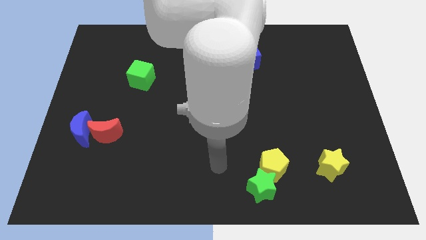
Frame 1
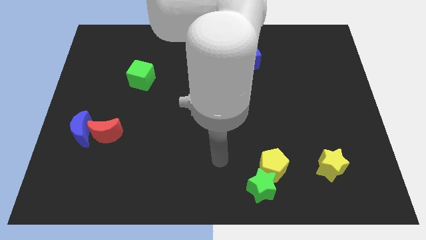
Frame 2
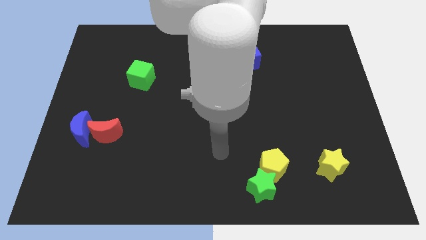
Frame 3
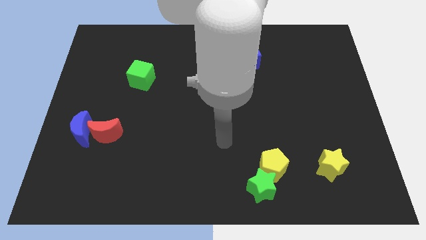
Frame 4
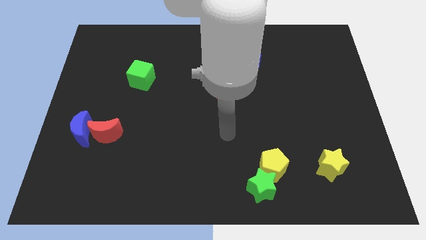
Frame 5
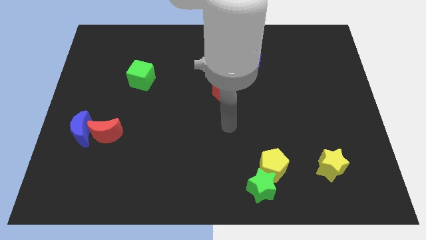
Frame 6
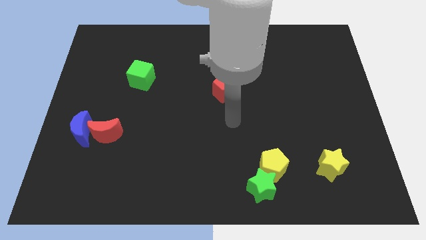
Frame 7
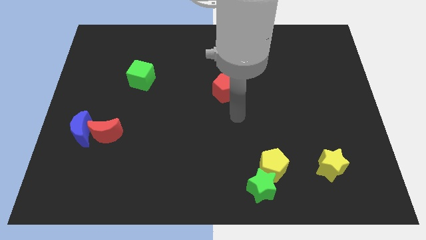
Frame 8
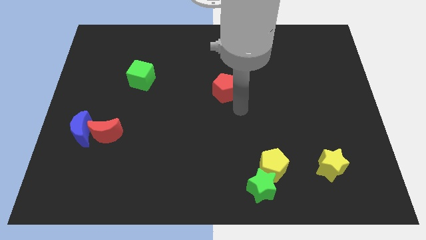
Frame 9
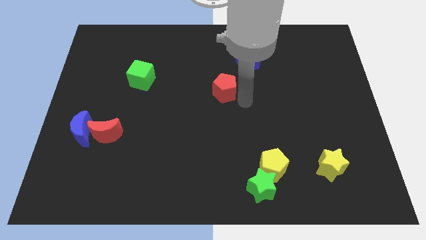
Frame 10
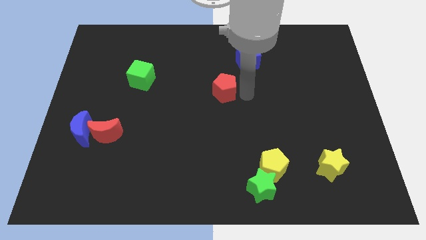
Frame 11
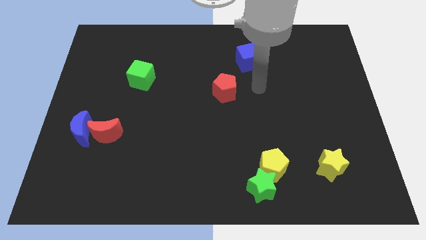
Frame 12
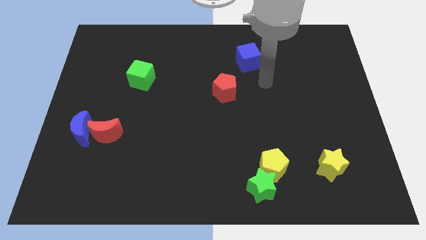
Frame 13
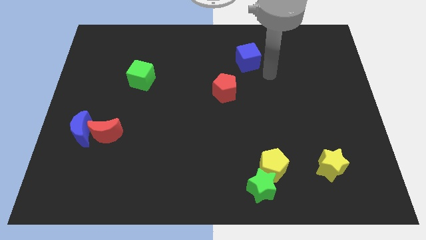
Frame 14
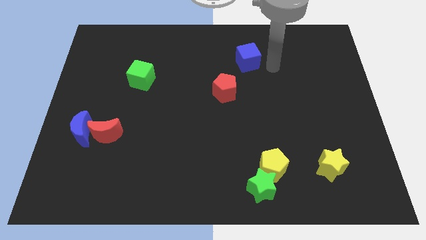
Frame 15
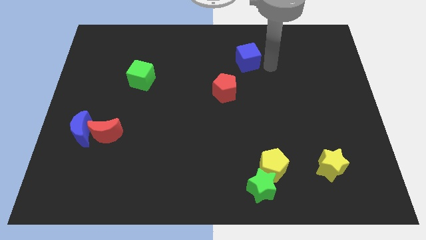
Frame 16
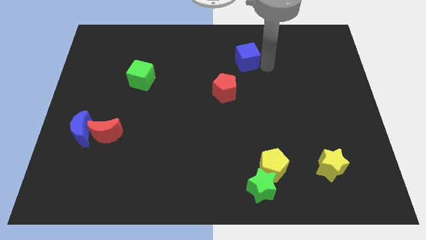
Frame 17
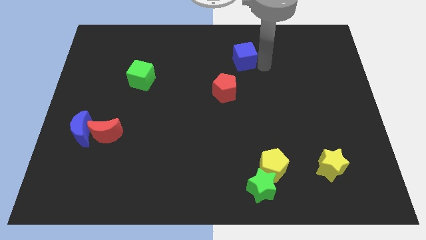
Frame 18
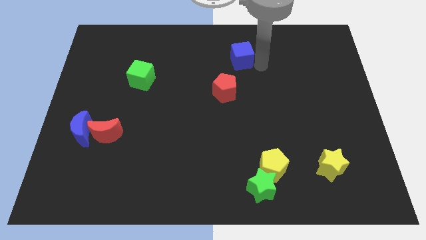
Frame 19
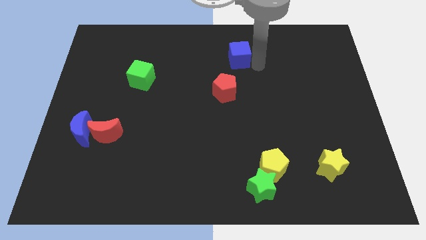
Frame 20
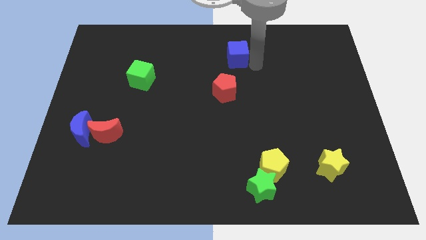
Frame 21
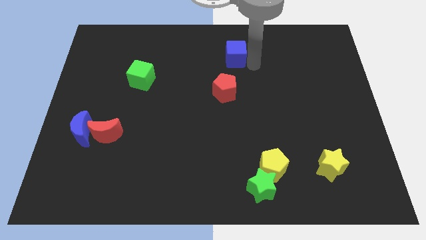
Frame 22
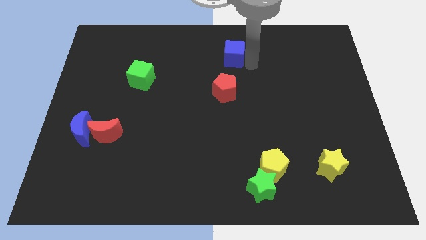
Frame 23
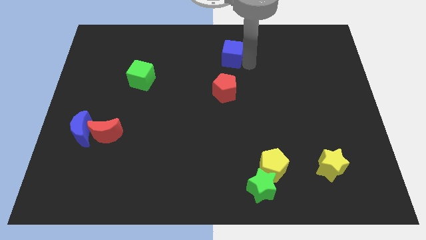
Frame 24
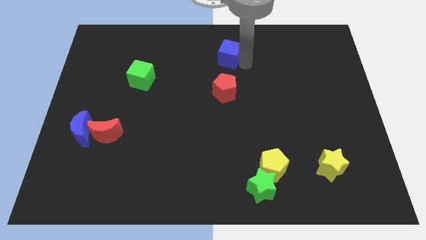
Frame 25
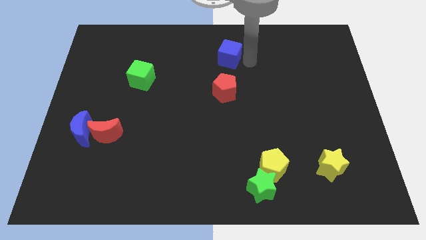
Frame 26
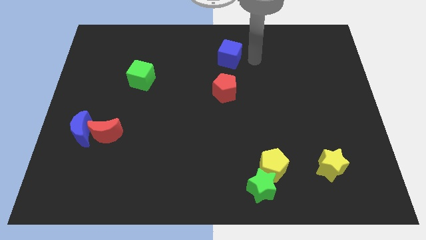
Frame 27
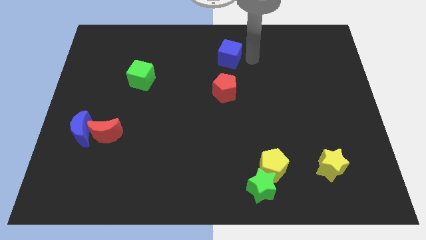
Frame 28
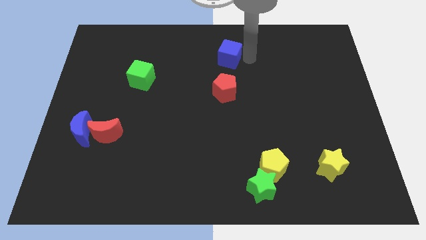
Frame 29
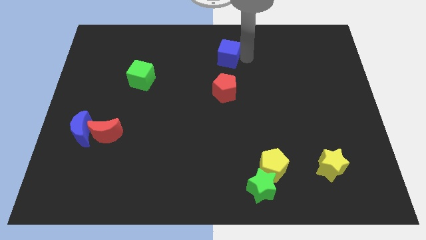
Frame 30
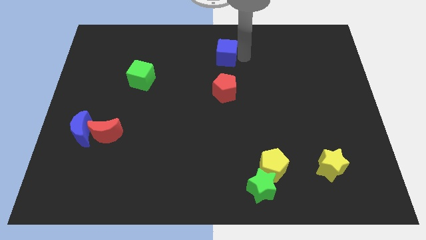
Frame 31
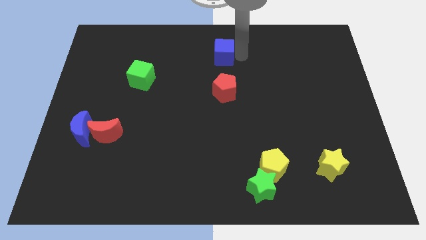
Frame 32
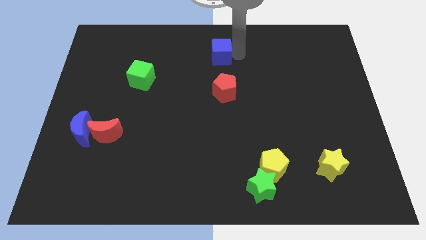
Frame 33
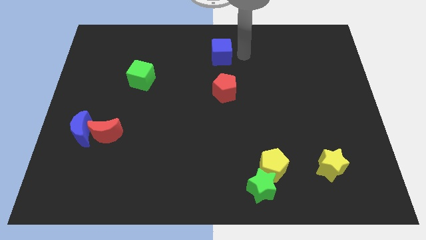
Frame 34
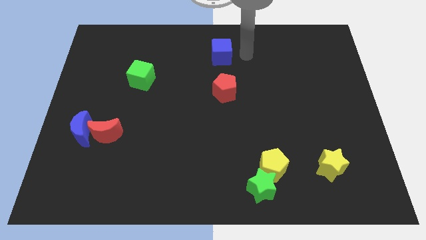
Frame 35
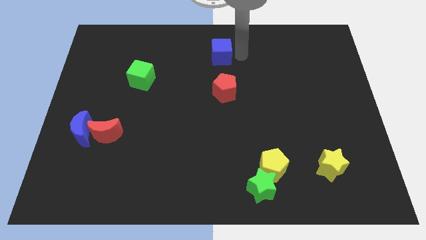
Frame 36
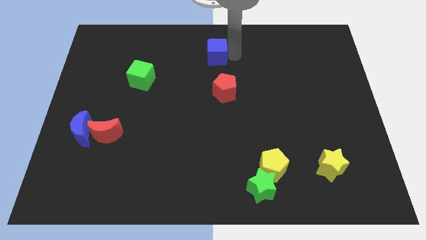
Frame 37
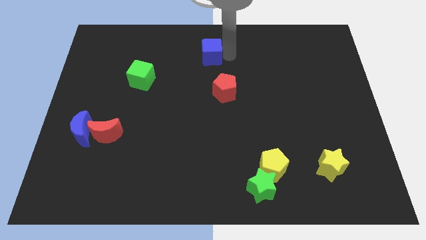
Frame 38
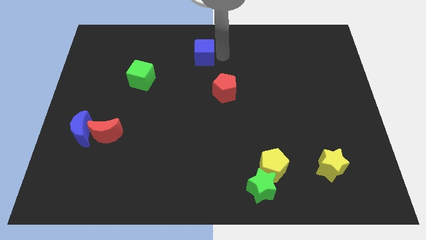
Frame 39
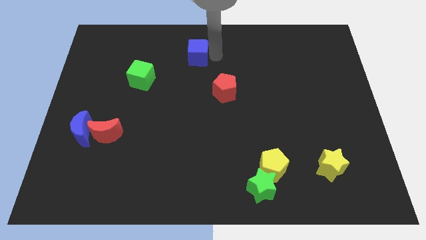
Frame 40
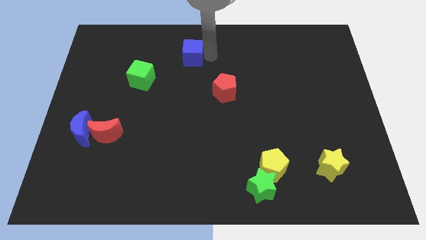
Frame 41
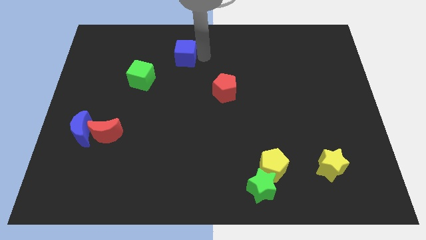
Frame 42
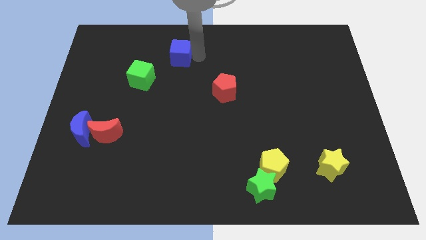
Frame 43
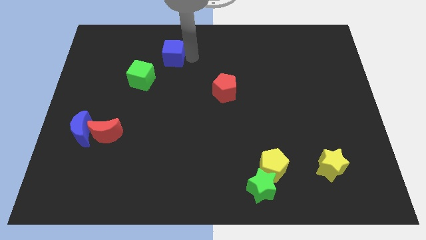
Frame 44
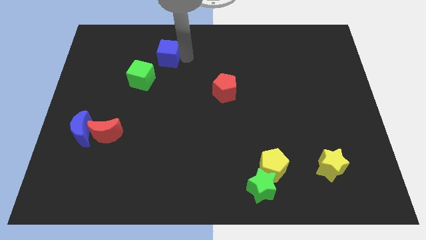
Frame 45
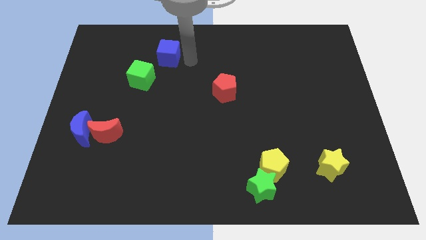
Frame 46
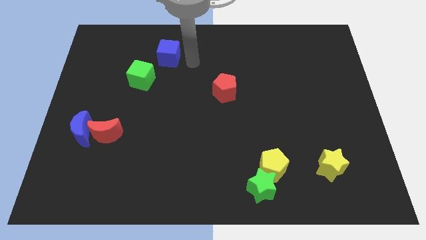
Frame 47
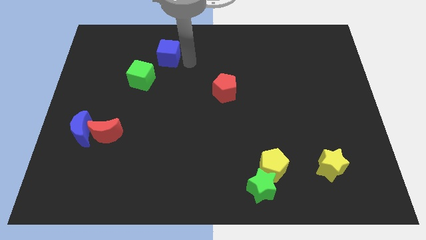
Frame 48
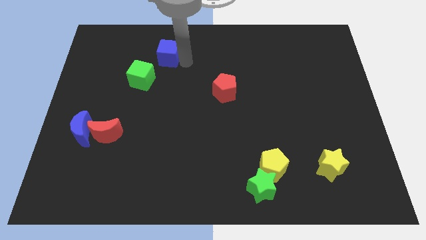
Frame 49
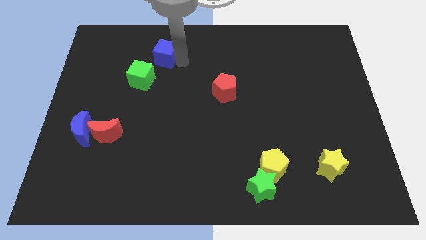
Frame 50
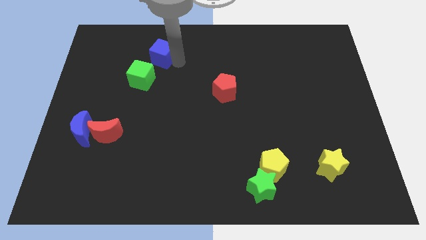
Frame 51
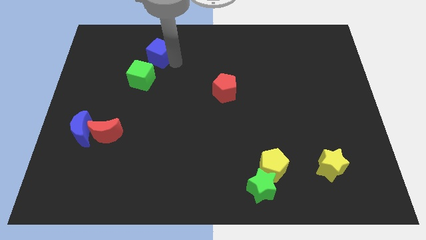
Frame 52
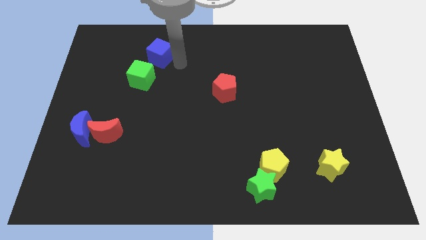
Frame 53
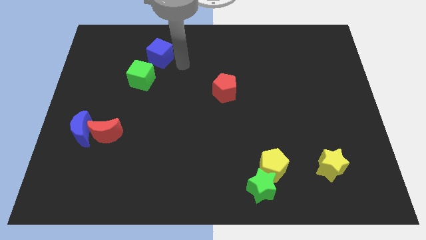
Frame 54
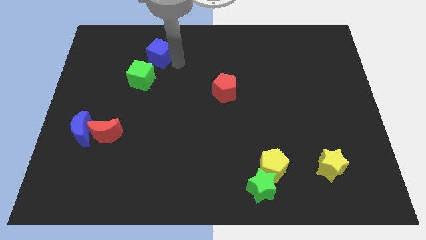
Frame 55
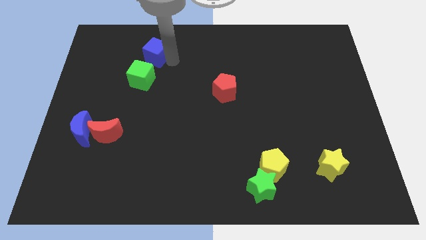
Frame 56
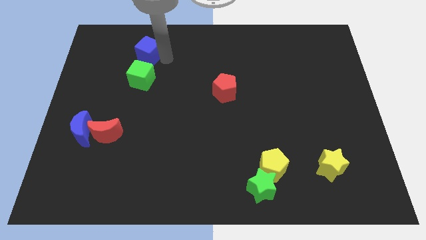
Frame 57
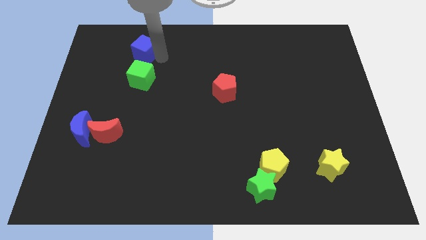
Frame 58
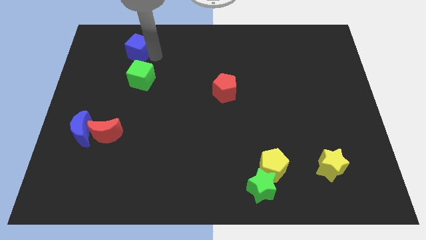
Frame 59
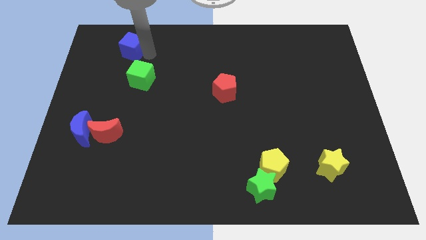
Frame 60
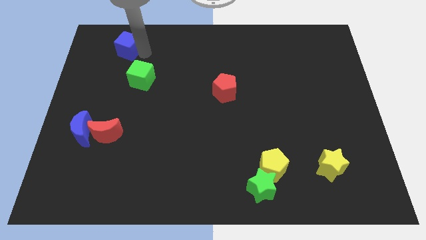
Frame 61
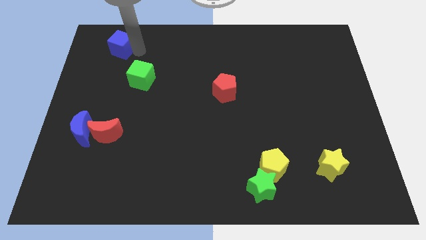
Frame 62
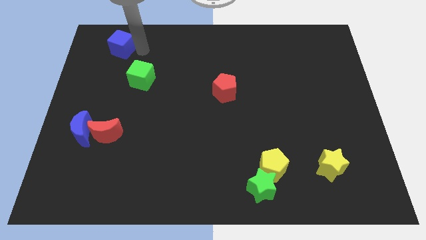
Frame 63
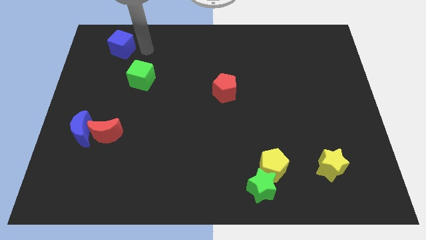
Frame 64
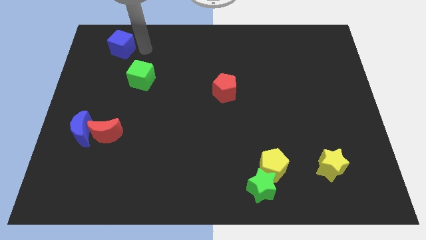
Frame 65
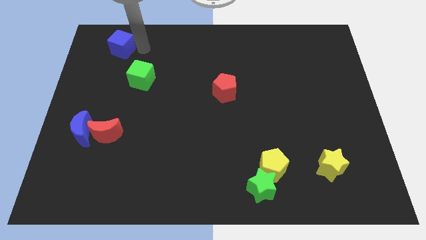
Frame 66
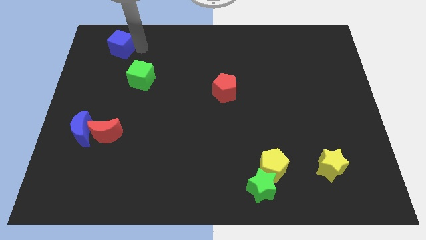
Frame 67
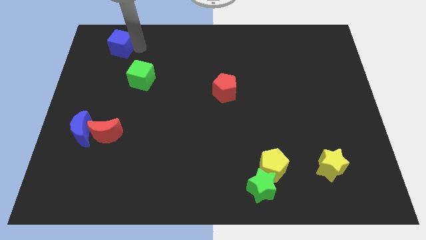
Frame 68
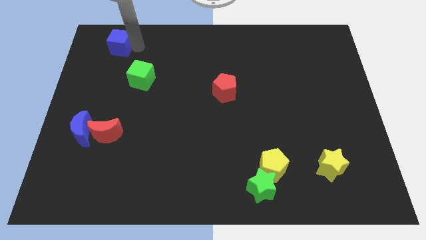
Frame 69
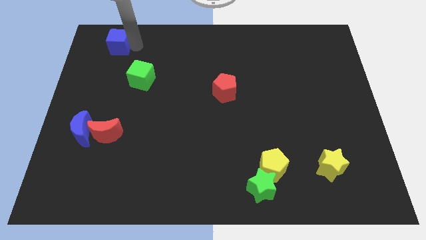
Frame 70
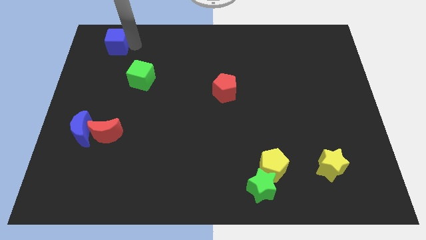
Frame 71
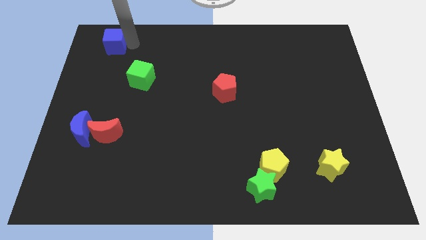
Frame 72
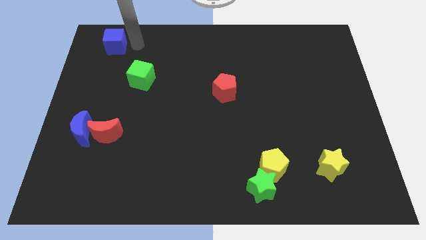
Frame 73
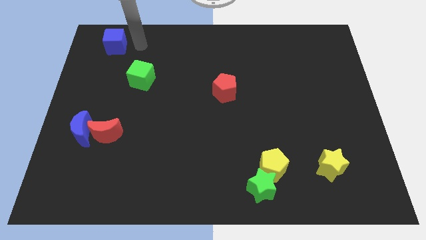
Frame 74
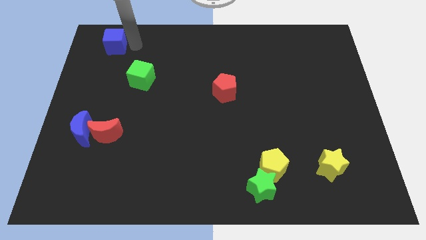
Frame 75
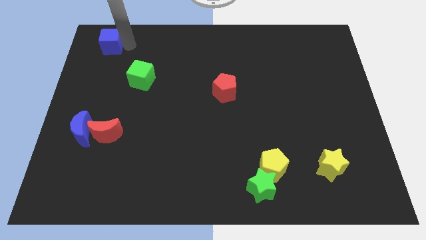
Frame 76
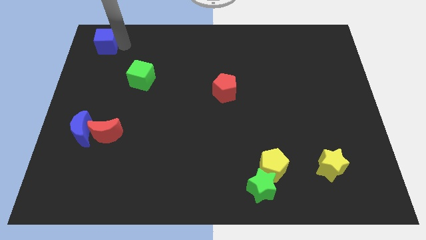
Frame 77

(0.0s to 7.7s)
push the blue cube to the top left
